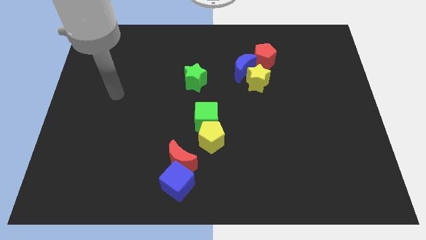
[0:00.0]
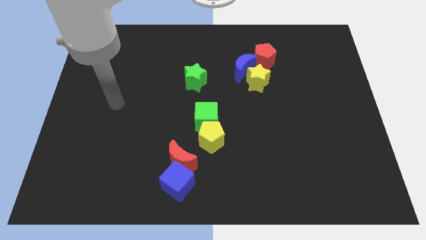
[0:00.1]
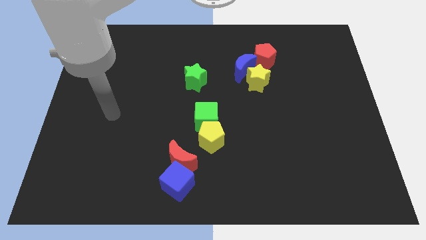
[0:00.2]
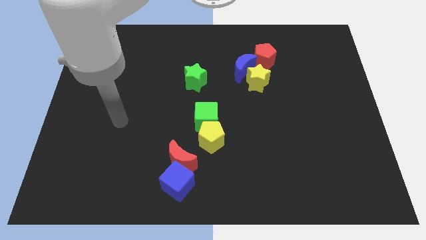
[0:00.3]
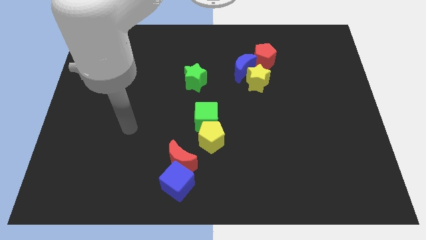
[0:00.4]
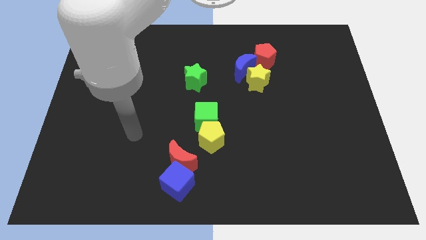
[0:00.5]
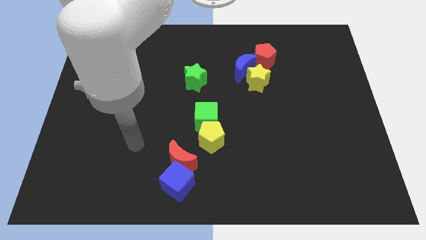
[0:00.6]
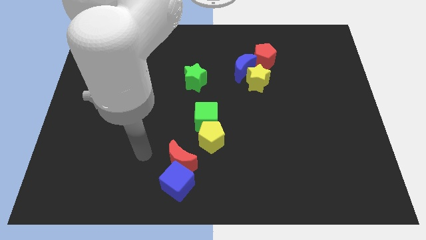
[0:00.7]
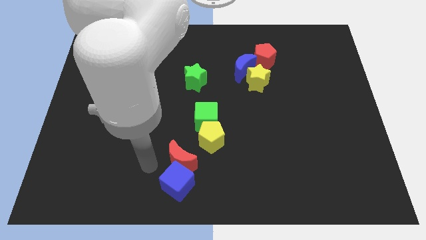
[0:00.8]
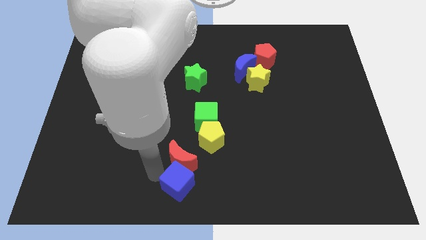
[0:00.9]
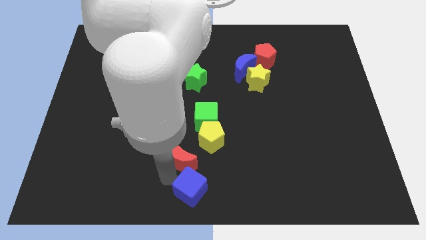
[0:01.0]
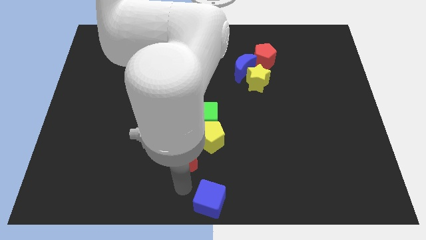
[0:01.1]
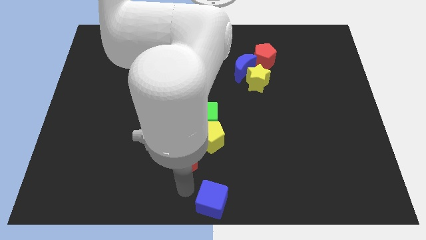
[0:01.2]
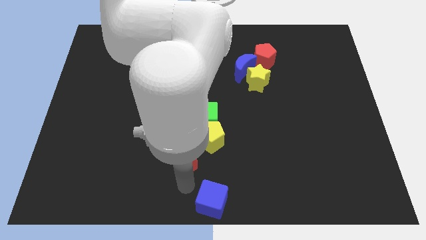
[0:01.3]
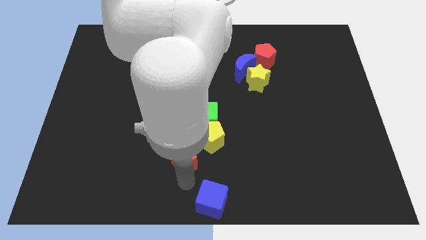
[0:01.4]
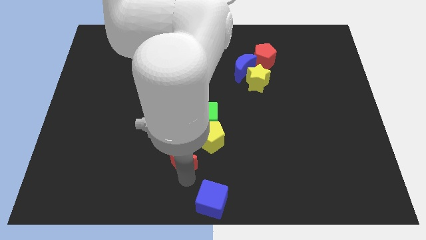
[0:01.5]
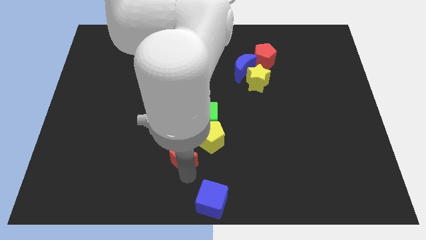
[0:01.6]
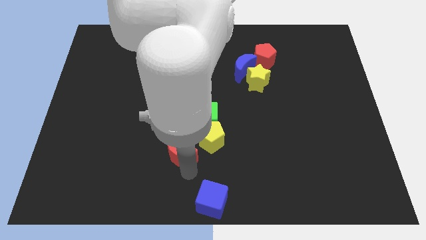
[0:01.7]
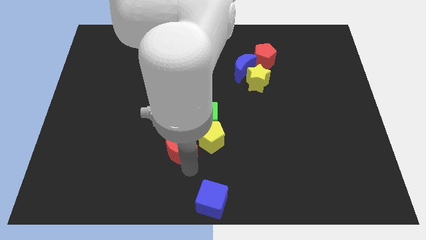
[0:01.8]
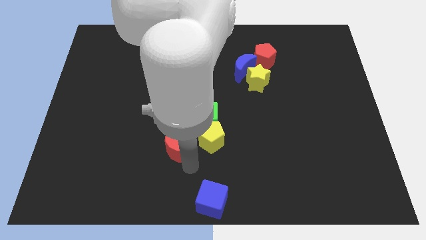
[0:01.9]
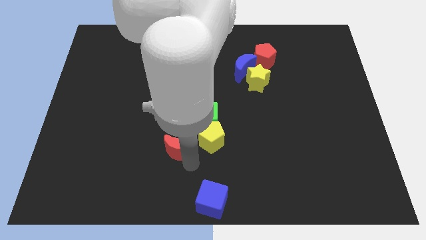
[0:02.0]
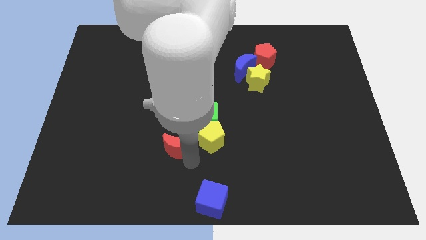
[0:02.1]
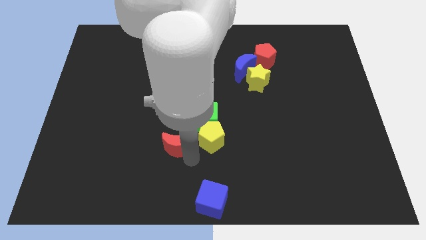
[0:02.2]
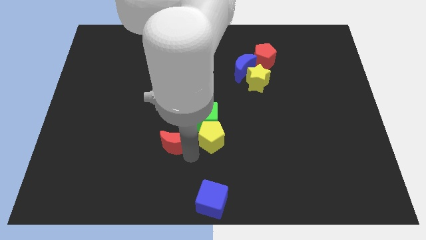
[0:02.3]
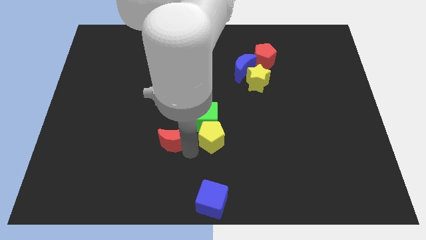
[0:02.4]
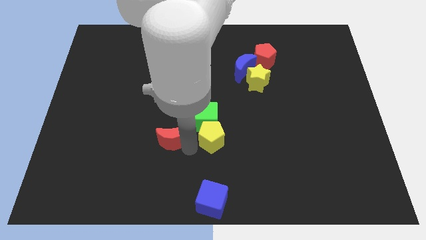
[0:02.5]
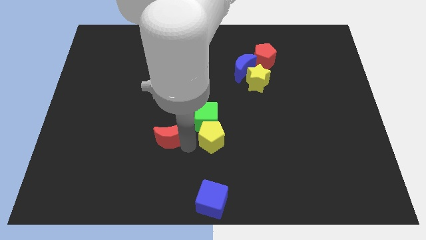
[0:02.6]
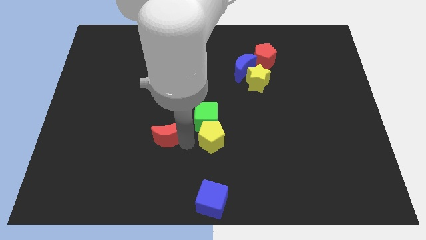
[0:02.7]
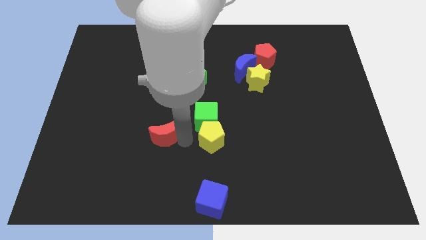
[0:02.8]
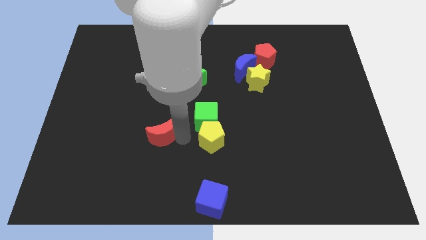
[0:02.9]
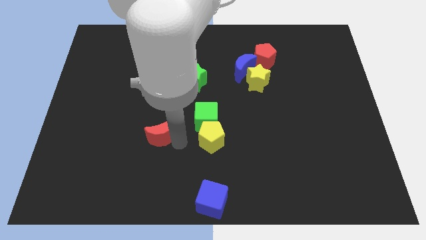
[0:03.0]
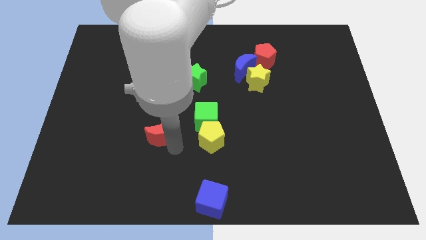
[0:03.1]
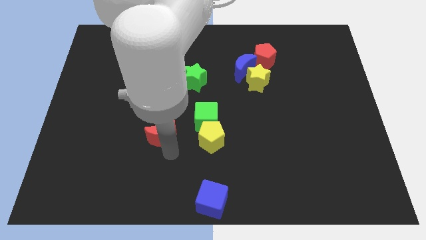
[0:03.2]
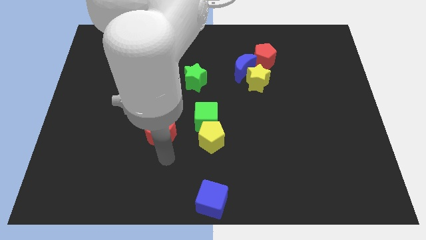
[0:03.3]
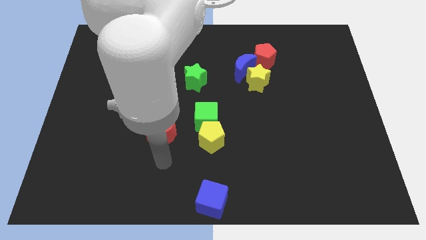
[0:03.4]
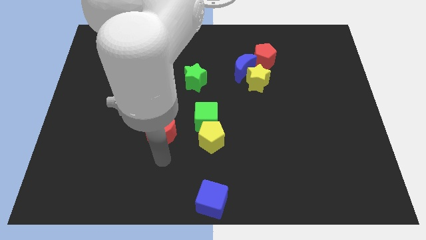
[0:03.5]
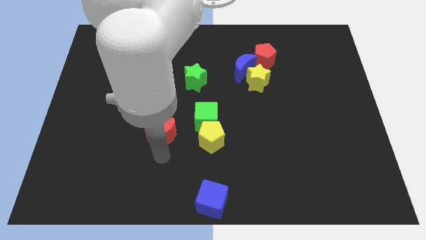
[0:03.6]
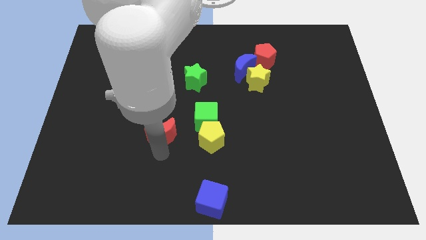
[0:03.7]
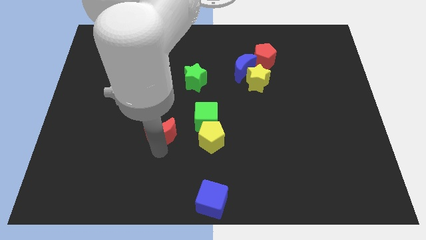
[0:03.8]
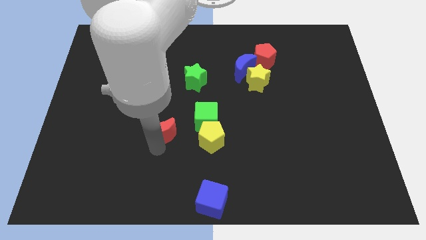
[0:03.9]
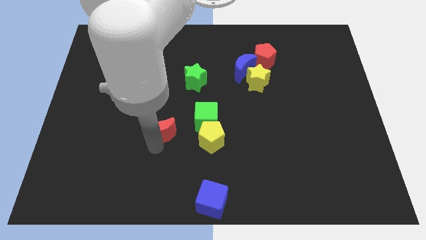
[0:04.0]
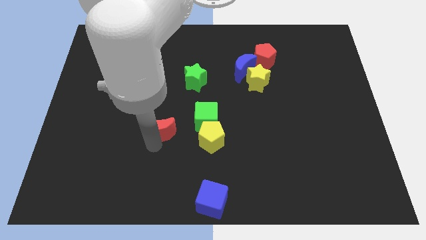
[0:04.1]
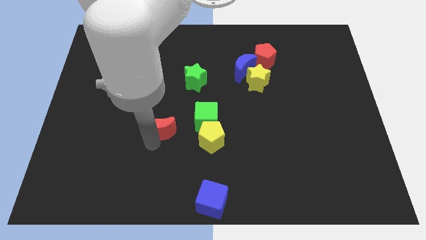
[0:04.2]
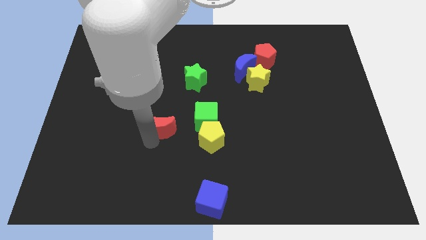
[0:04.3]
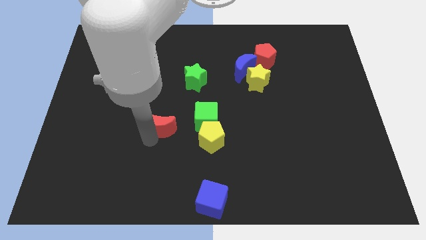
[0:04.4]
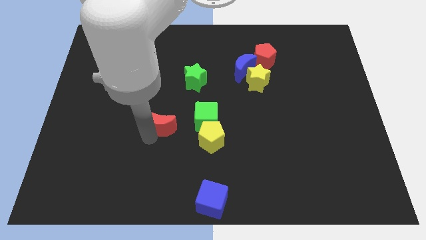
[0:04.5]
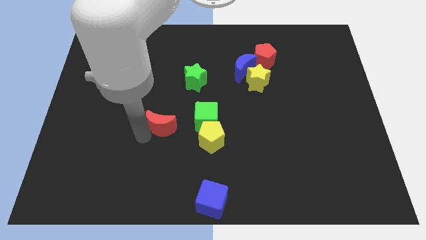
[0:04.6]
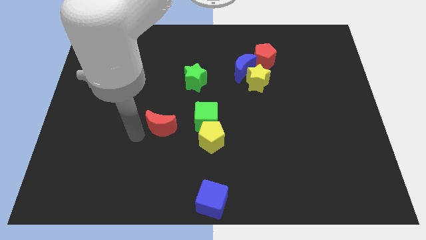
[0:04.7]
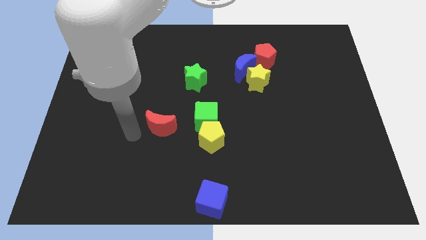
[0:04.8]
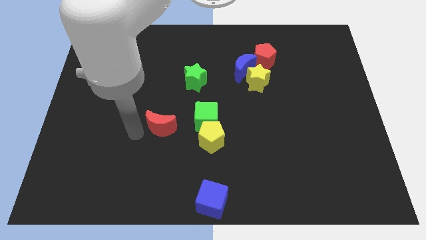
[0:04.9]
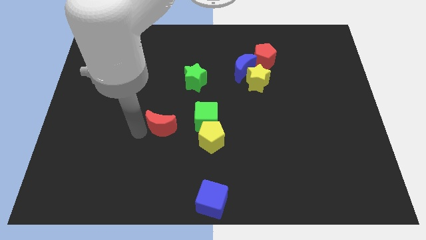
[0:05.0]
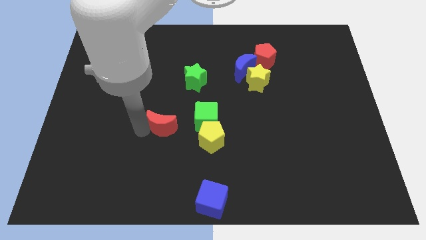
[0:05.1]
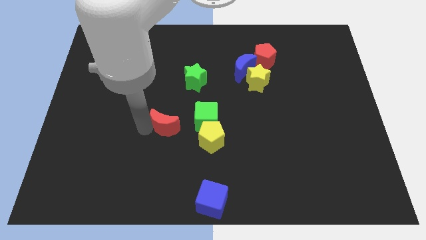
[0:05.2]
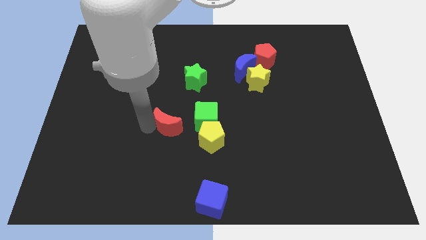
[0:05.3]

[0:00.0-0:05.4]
push the red moon diagonally up and to the left of the yellow pentagon

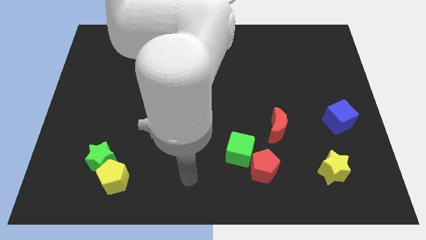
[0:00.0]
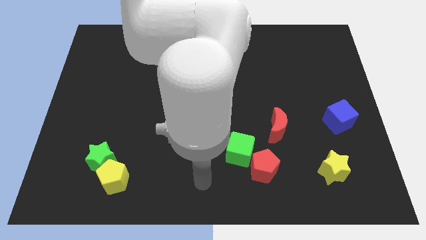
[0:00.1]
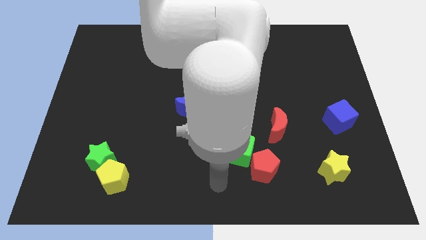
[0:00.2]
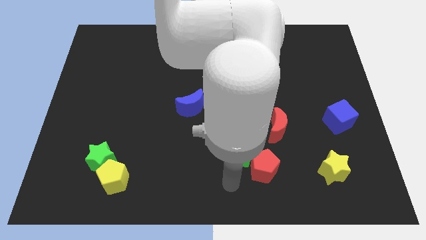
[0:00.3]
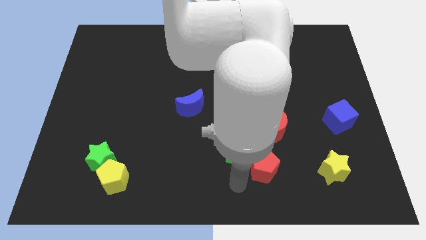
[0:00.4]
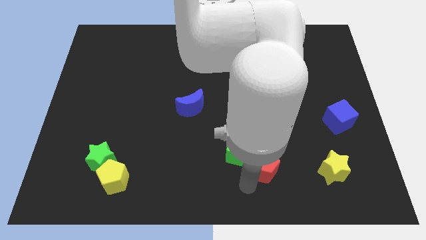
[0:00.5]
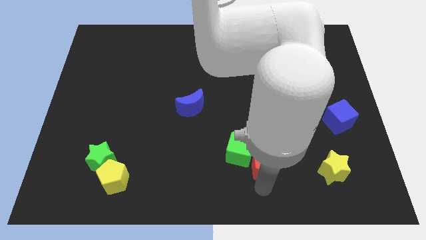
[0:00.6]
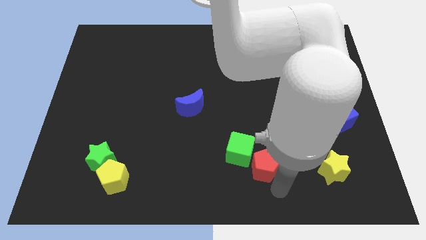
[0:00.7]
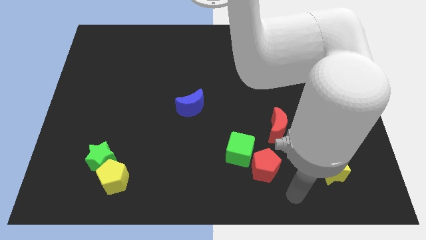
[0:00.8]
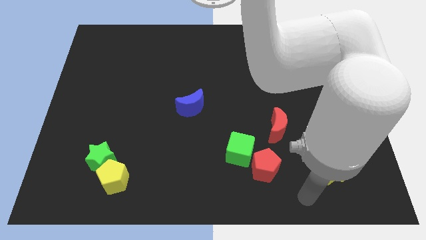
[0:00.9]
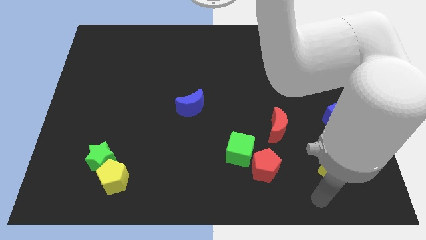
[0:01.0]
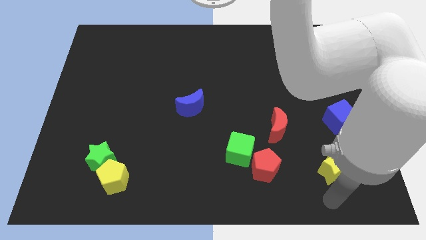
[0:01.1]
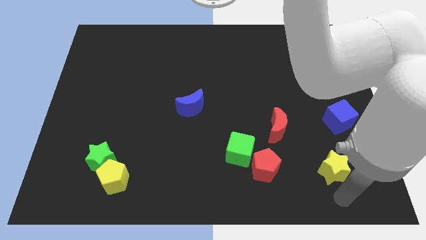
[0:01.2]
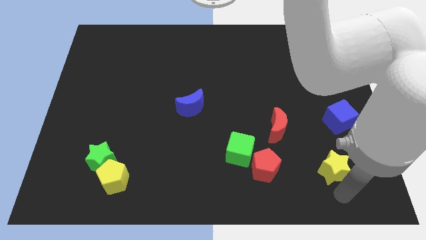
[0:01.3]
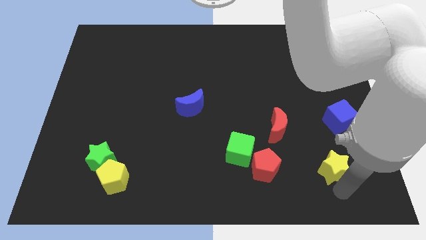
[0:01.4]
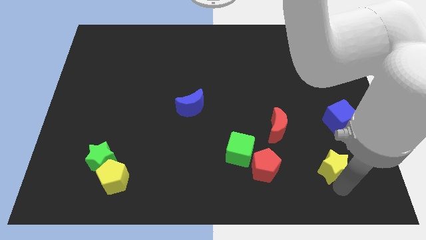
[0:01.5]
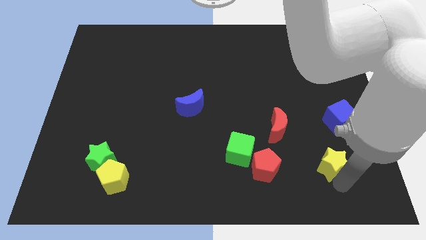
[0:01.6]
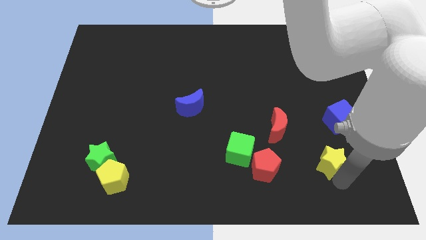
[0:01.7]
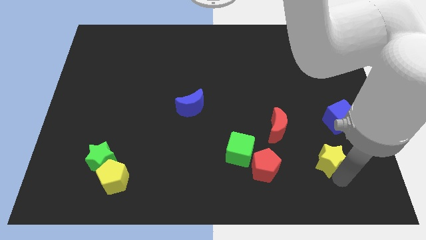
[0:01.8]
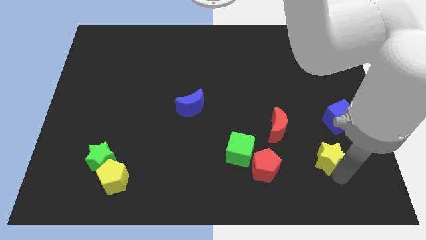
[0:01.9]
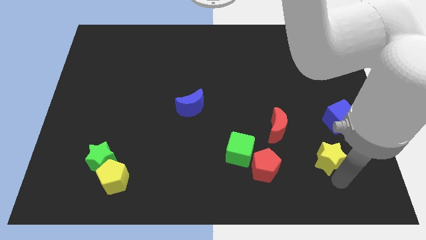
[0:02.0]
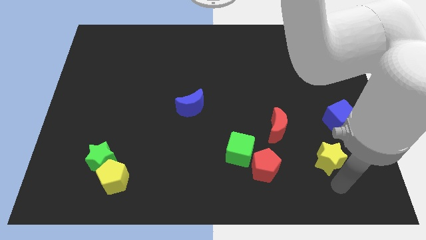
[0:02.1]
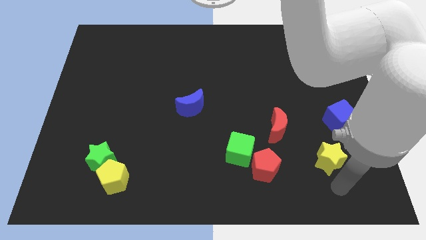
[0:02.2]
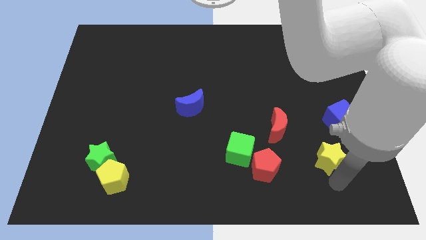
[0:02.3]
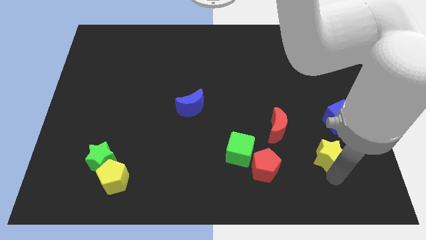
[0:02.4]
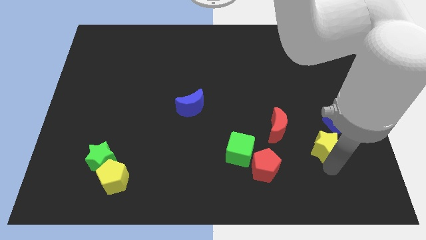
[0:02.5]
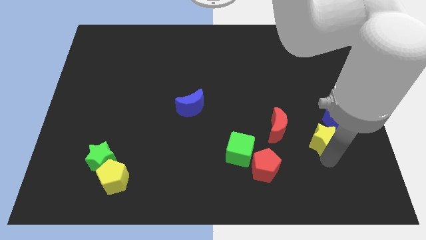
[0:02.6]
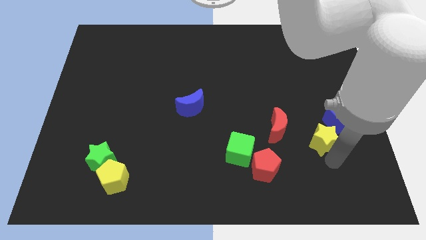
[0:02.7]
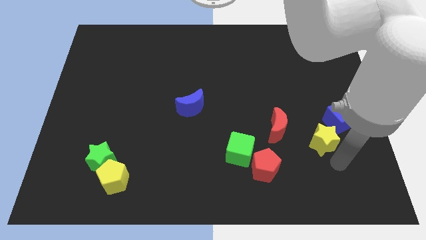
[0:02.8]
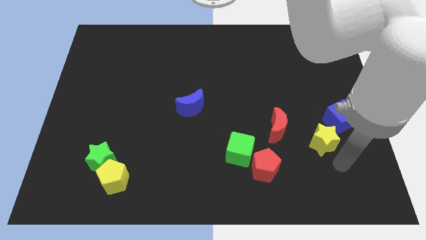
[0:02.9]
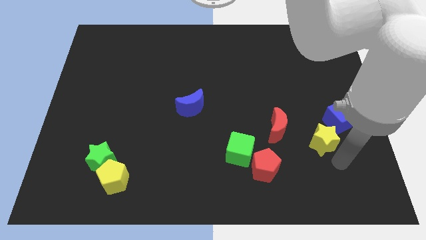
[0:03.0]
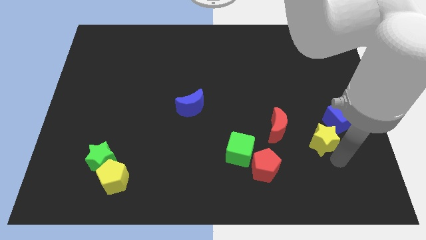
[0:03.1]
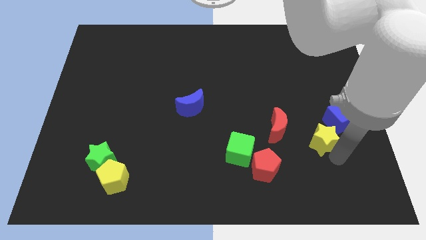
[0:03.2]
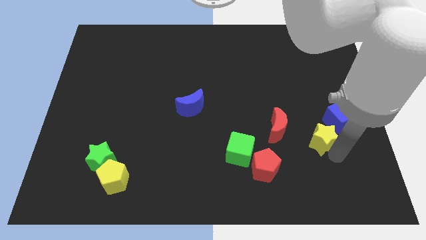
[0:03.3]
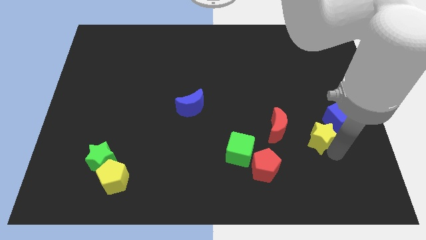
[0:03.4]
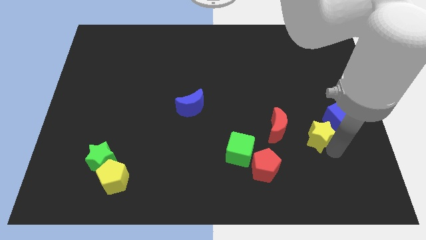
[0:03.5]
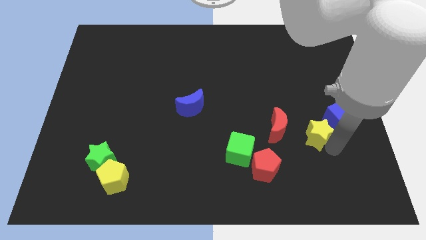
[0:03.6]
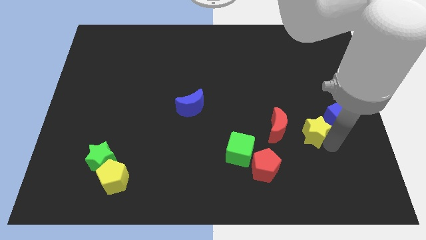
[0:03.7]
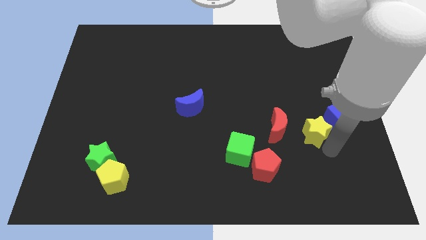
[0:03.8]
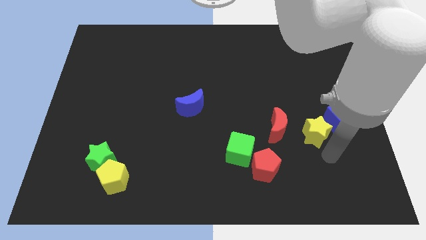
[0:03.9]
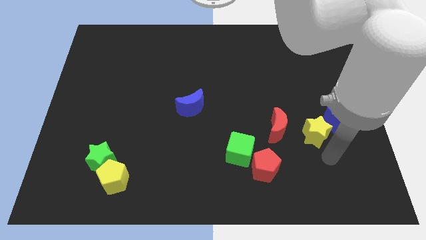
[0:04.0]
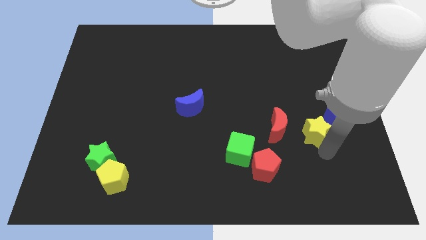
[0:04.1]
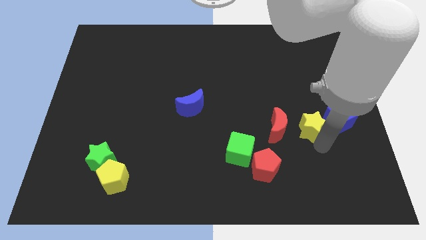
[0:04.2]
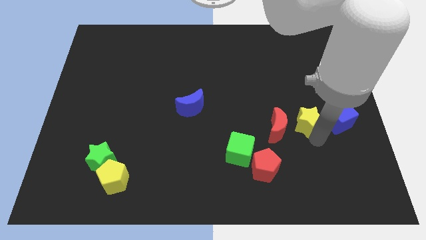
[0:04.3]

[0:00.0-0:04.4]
put the yellow star diagonally up and to the right of the red moon
